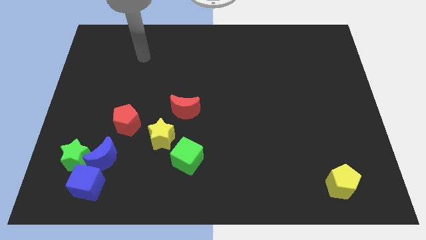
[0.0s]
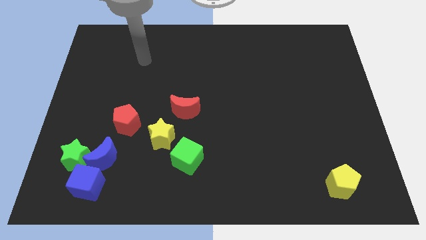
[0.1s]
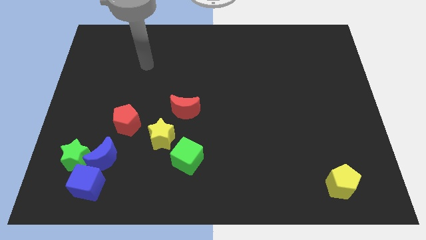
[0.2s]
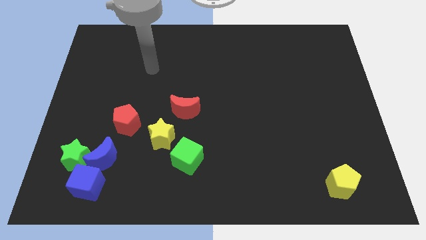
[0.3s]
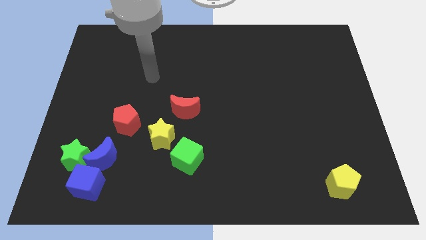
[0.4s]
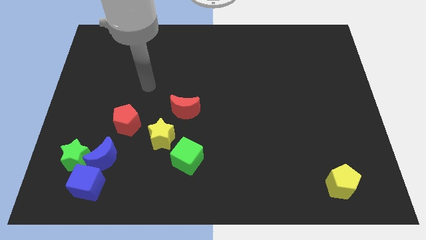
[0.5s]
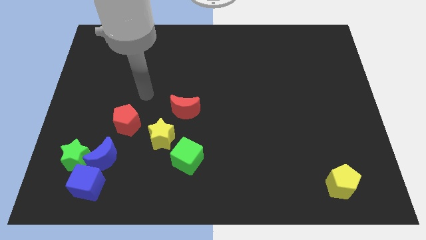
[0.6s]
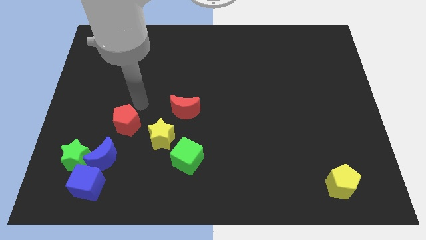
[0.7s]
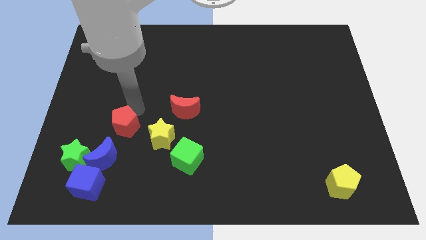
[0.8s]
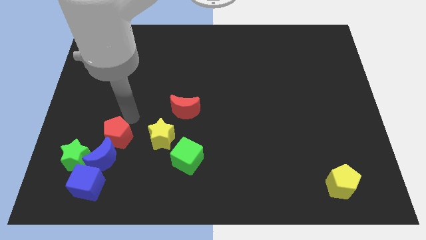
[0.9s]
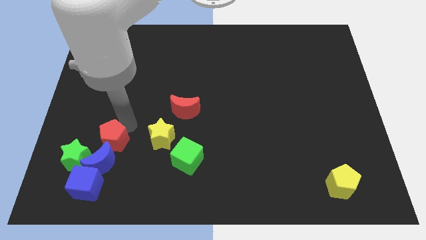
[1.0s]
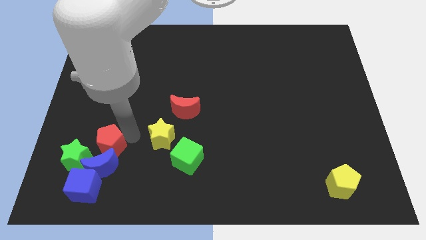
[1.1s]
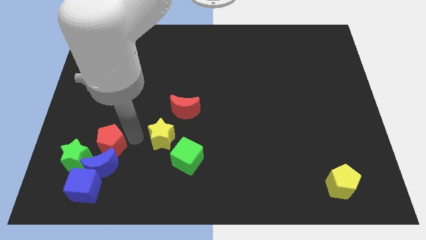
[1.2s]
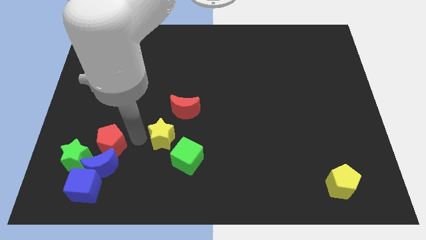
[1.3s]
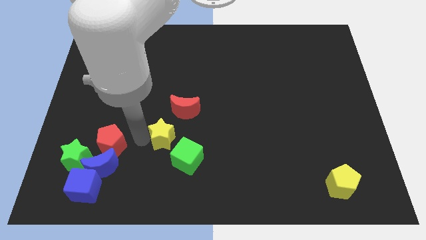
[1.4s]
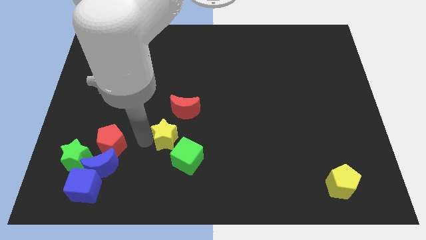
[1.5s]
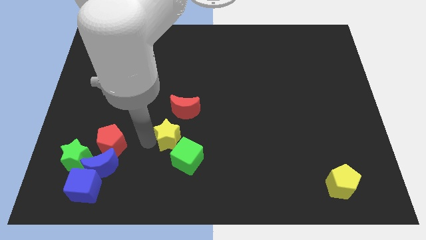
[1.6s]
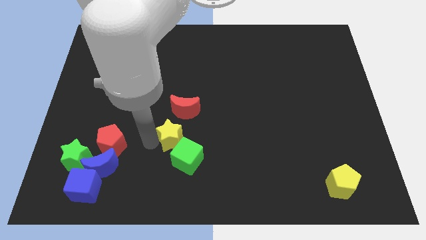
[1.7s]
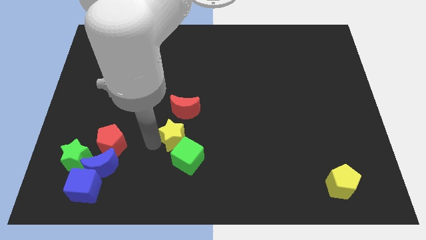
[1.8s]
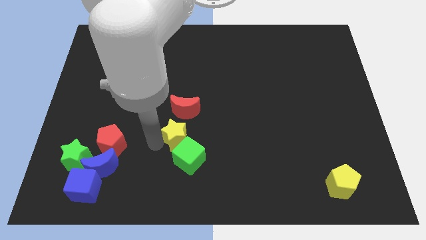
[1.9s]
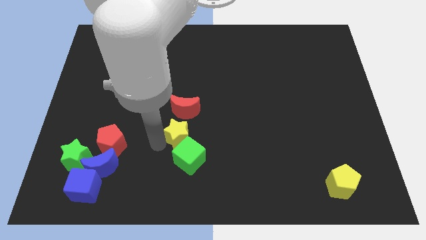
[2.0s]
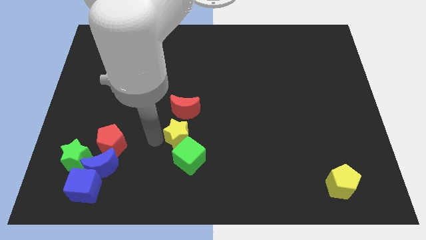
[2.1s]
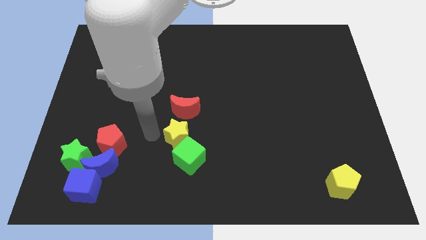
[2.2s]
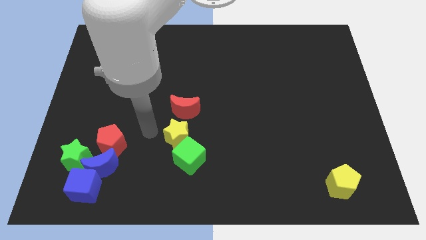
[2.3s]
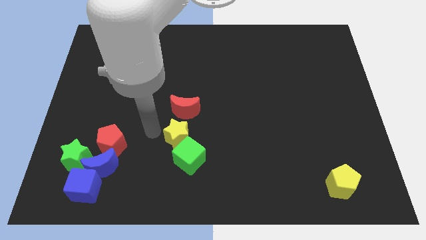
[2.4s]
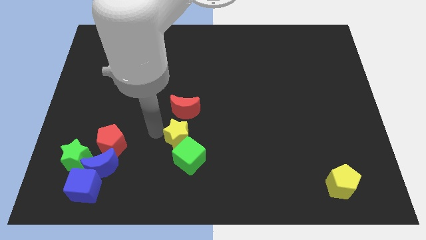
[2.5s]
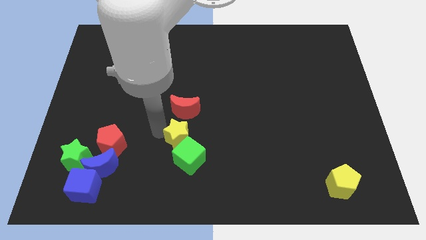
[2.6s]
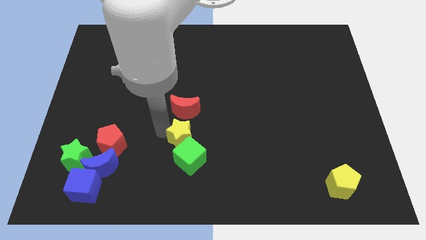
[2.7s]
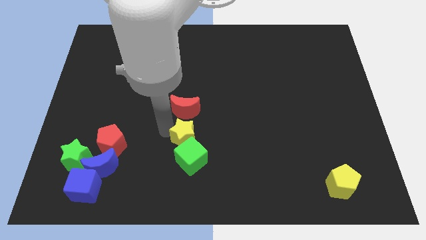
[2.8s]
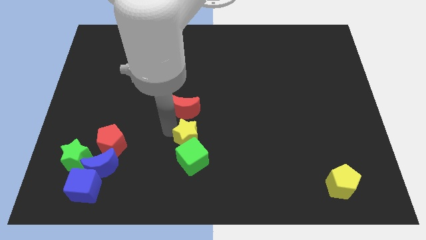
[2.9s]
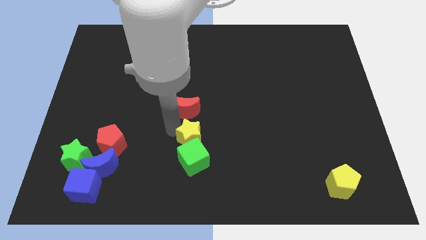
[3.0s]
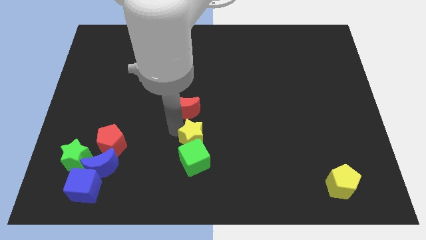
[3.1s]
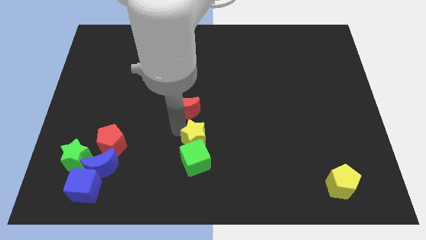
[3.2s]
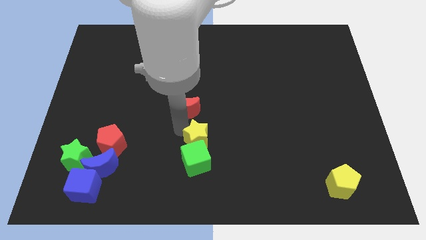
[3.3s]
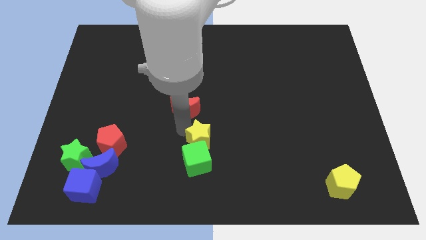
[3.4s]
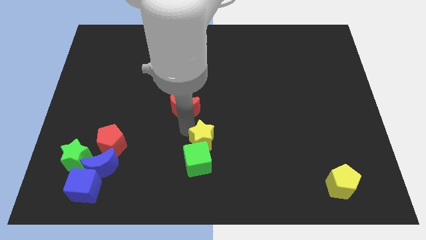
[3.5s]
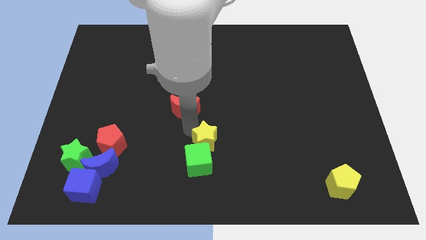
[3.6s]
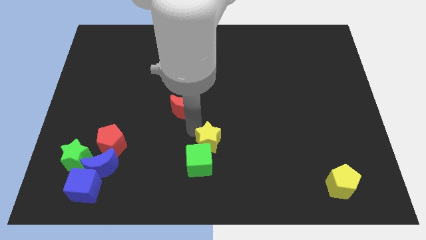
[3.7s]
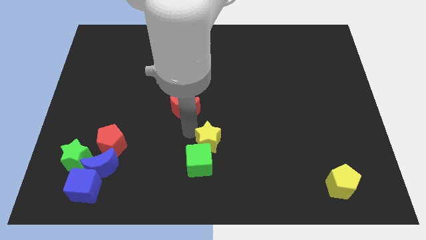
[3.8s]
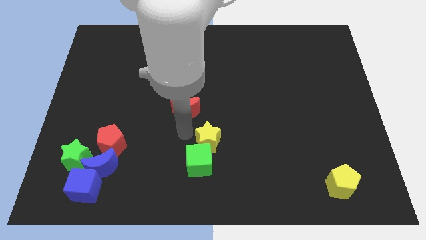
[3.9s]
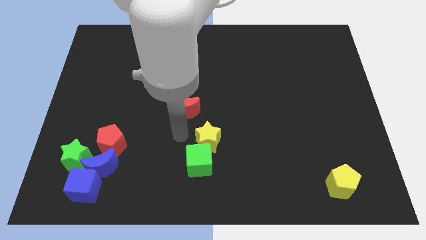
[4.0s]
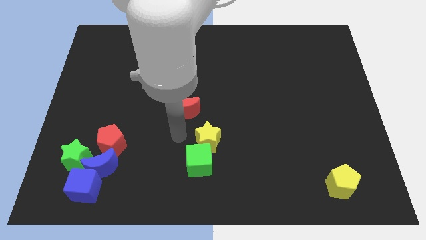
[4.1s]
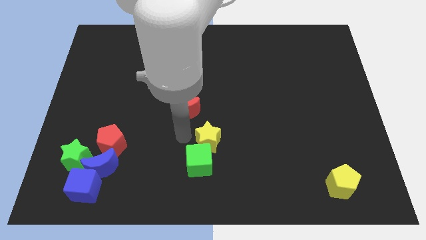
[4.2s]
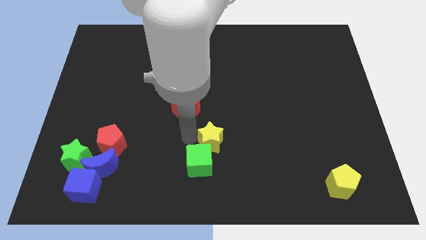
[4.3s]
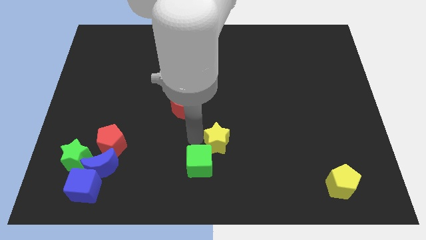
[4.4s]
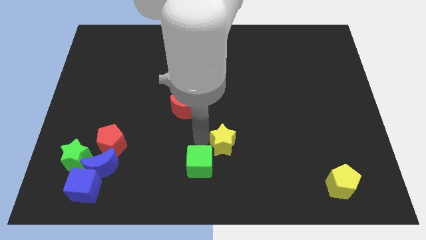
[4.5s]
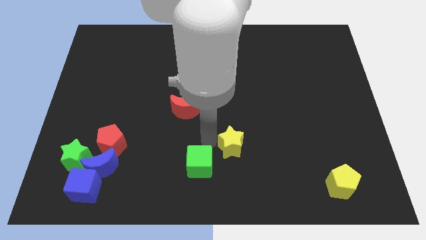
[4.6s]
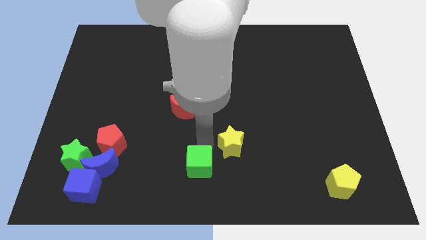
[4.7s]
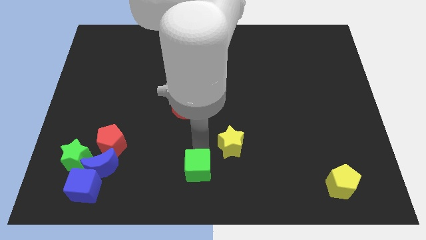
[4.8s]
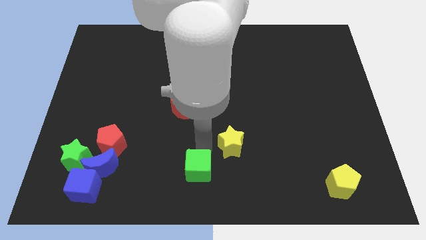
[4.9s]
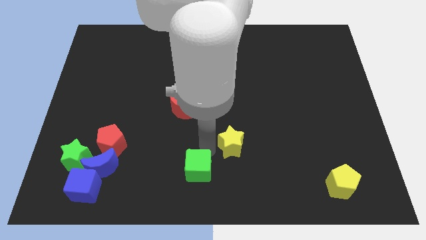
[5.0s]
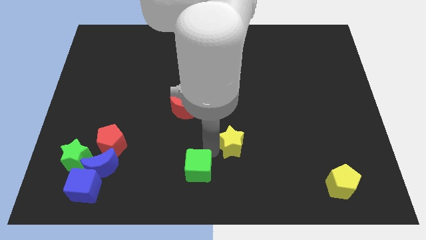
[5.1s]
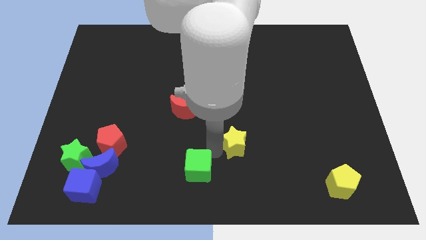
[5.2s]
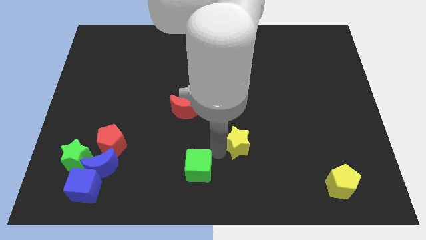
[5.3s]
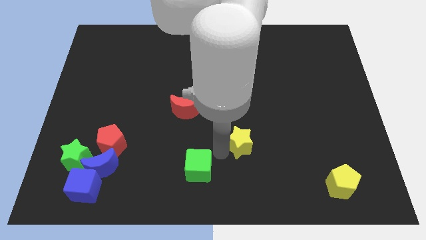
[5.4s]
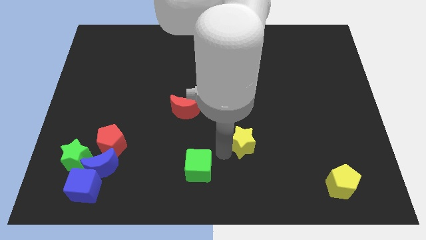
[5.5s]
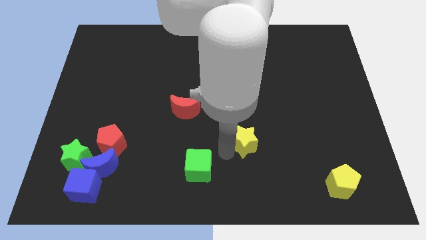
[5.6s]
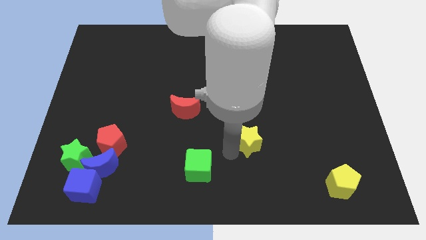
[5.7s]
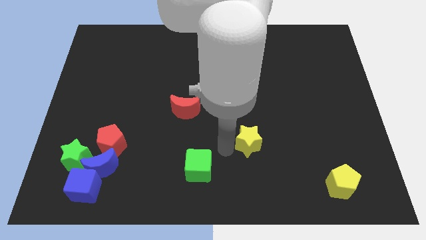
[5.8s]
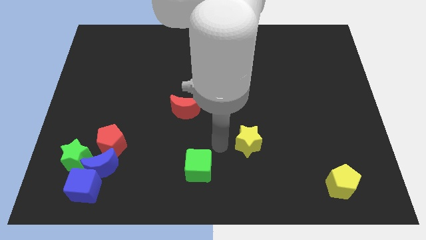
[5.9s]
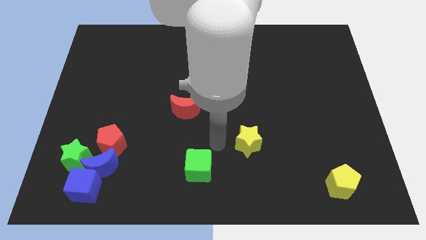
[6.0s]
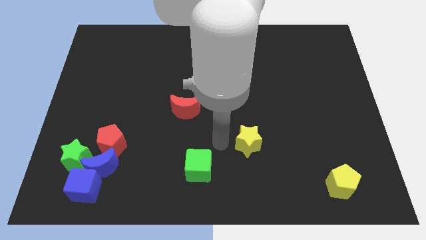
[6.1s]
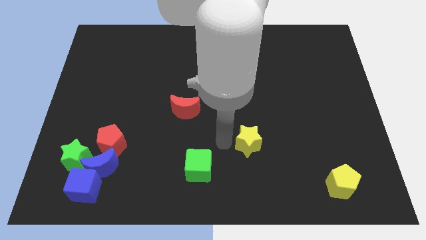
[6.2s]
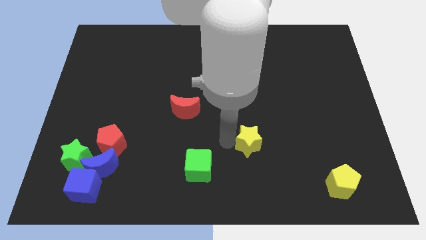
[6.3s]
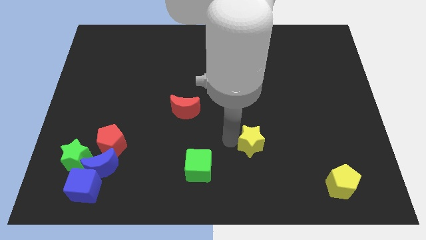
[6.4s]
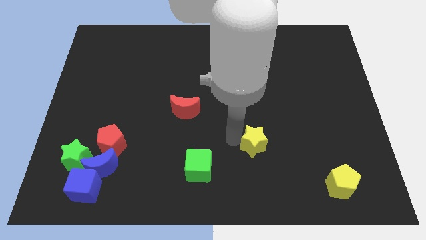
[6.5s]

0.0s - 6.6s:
push the yellow star to the right

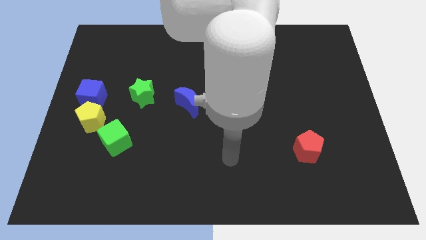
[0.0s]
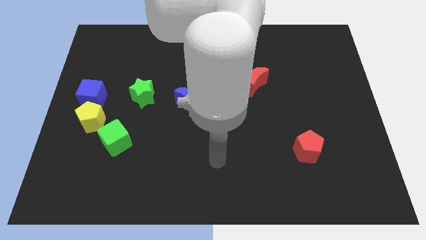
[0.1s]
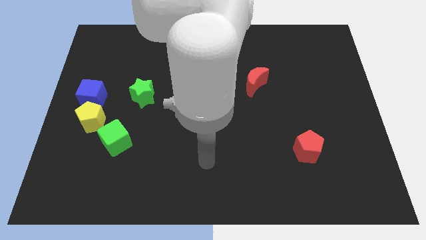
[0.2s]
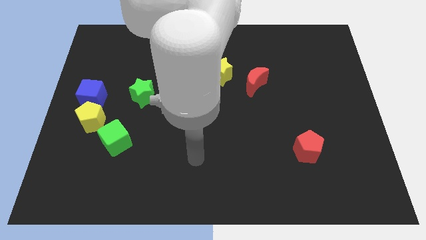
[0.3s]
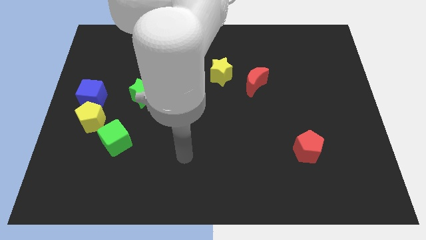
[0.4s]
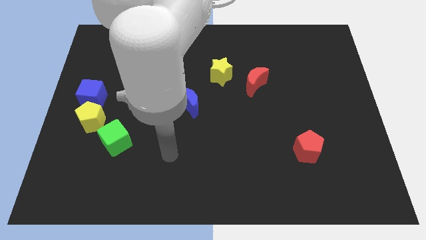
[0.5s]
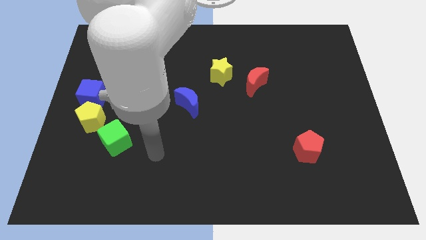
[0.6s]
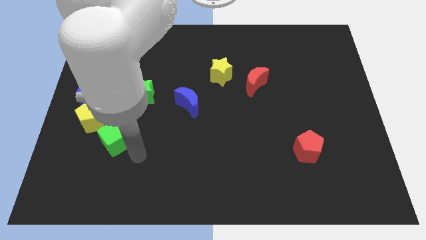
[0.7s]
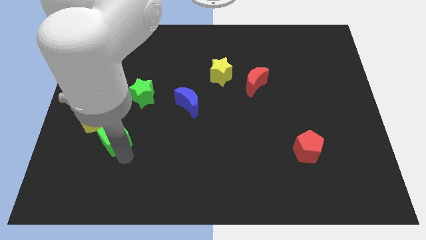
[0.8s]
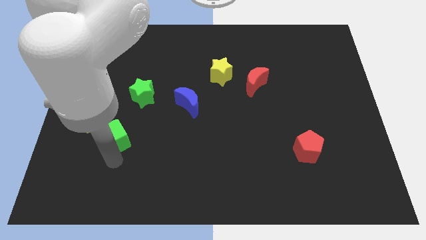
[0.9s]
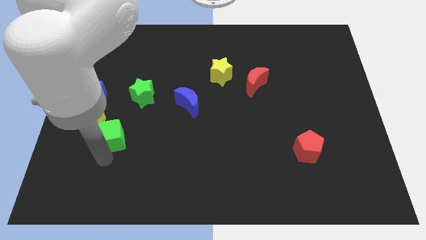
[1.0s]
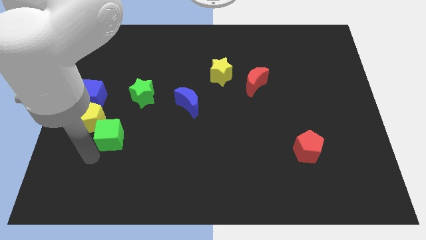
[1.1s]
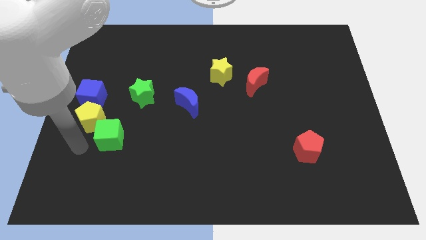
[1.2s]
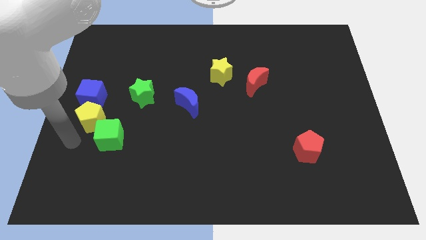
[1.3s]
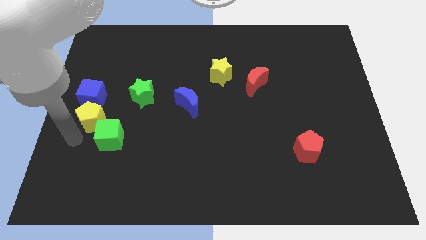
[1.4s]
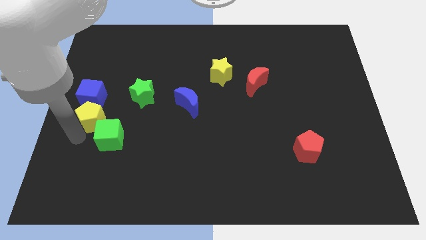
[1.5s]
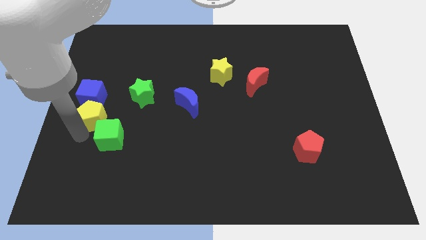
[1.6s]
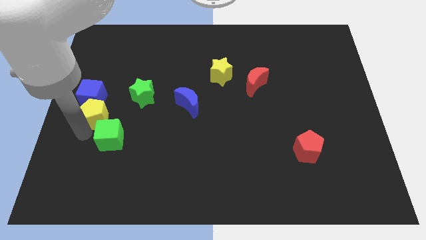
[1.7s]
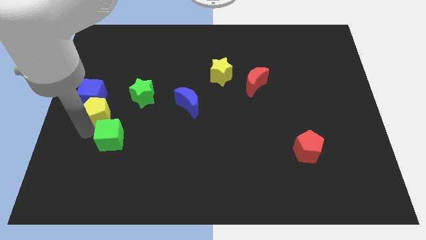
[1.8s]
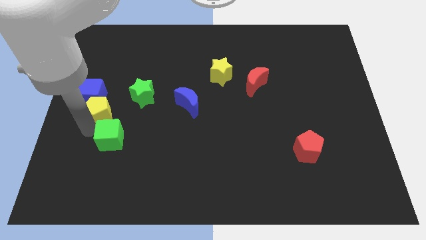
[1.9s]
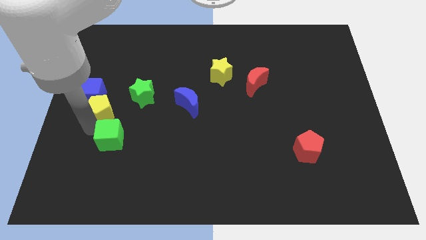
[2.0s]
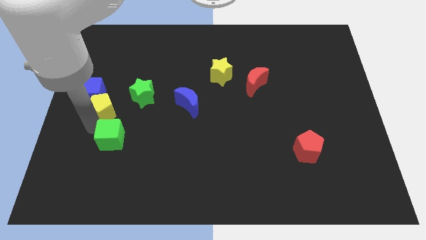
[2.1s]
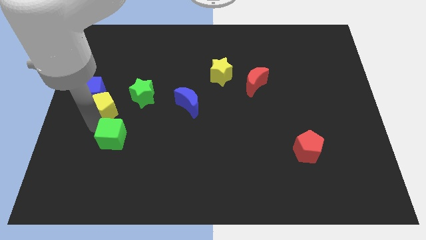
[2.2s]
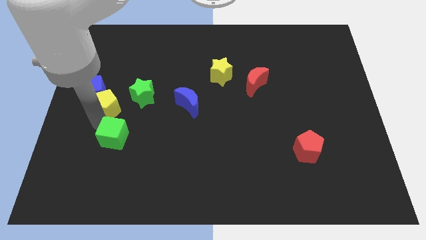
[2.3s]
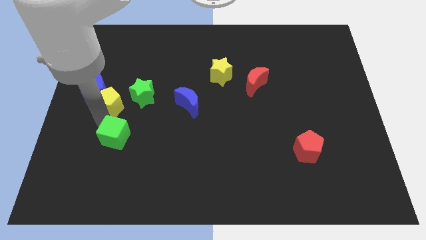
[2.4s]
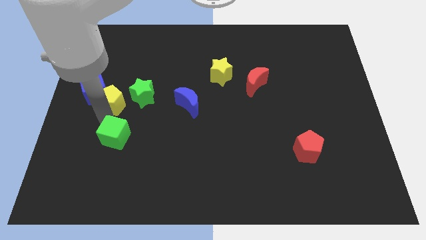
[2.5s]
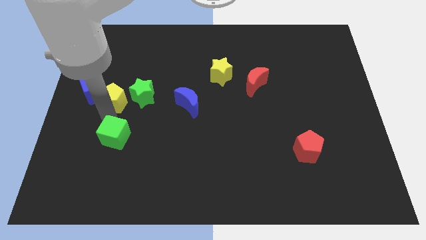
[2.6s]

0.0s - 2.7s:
move the yellow pentagon a little diagonally up and to the right
